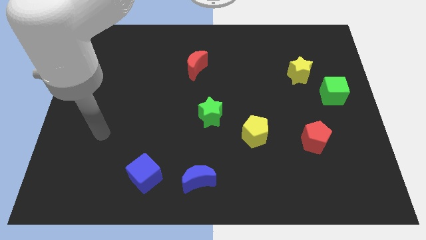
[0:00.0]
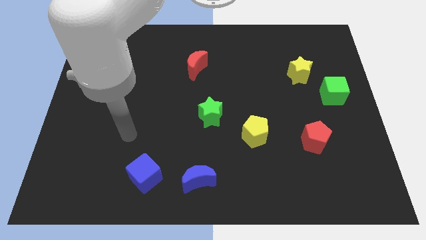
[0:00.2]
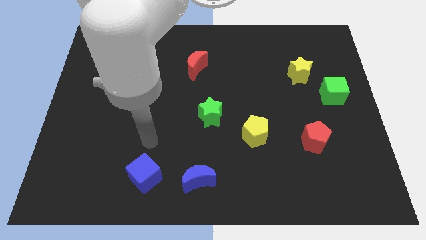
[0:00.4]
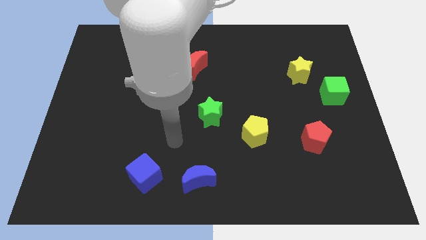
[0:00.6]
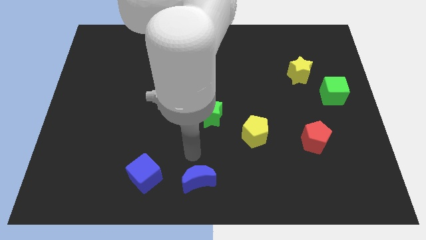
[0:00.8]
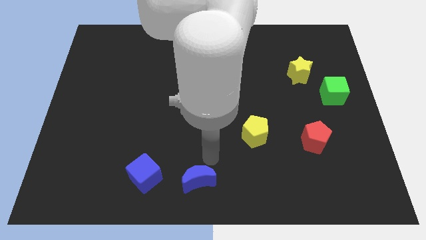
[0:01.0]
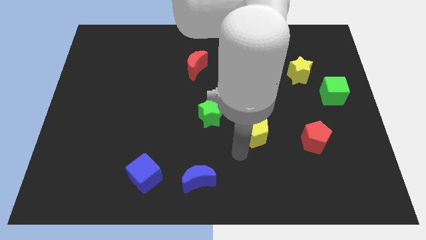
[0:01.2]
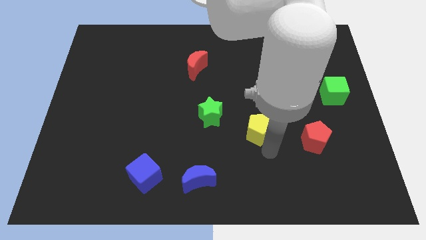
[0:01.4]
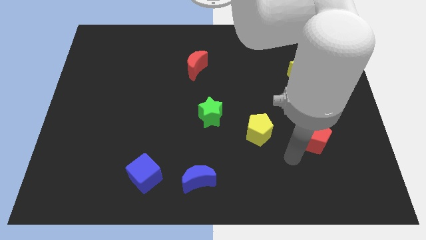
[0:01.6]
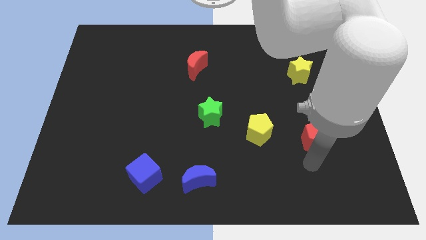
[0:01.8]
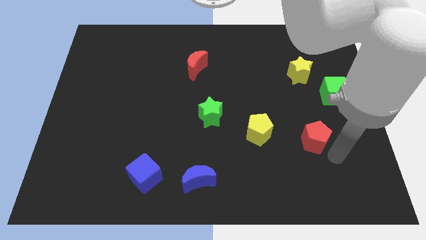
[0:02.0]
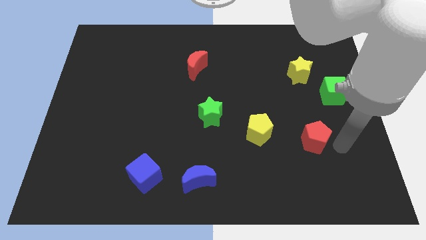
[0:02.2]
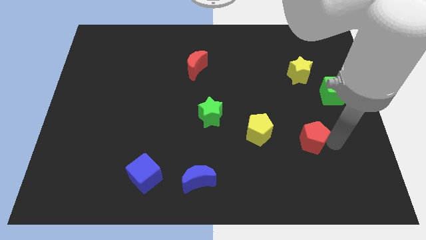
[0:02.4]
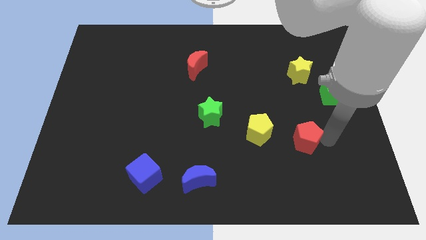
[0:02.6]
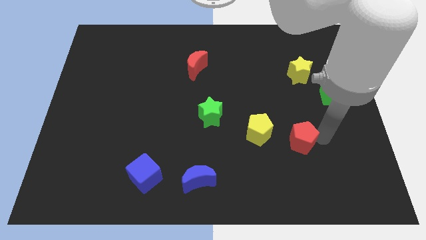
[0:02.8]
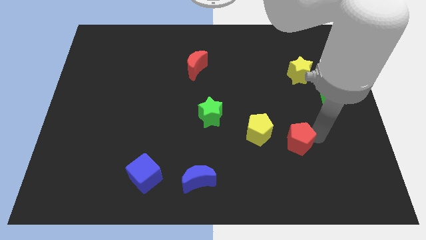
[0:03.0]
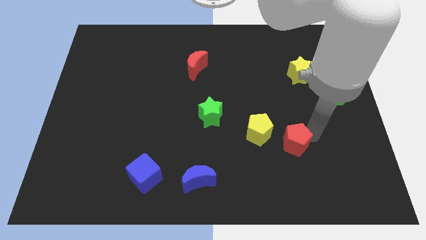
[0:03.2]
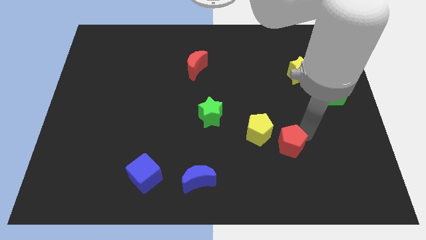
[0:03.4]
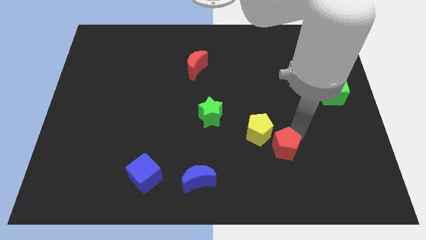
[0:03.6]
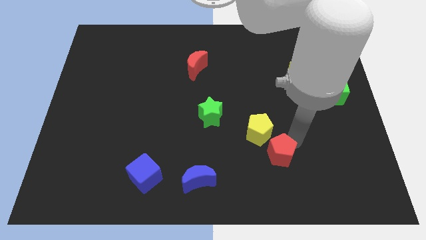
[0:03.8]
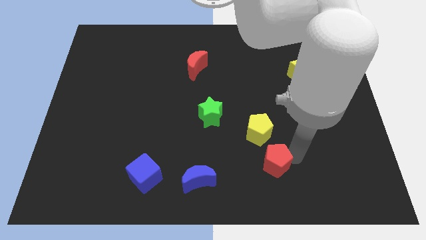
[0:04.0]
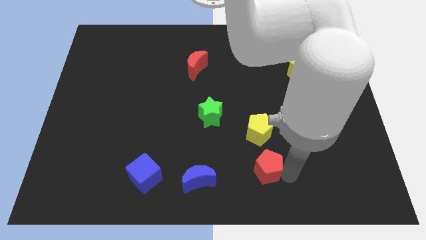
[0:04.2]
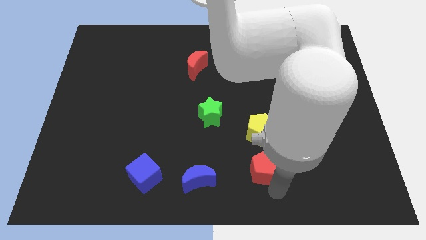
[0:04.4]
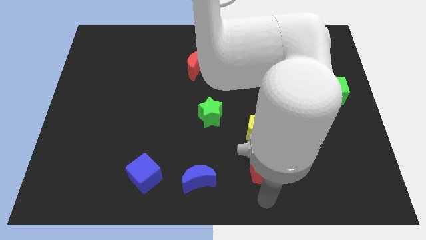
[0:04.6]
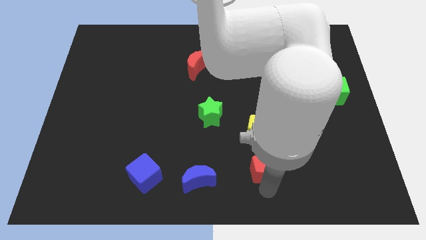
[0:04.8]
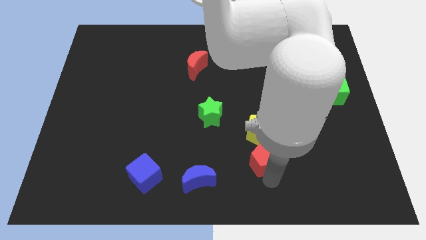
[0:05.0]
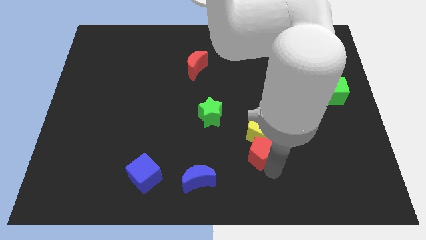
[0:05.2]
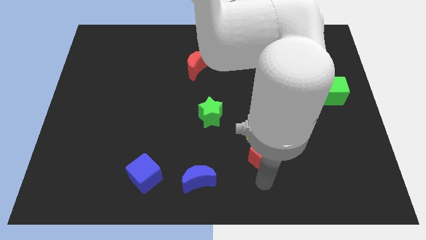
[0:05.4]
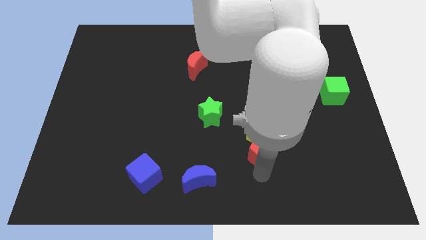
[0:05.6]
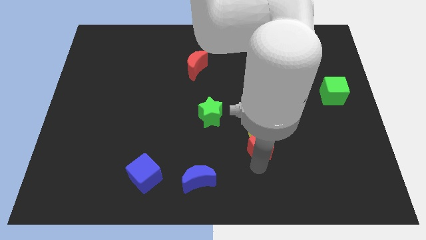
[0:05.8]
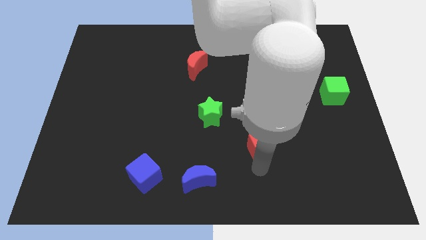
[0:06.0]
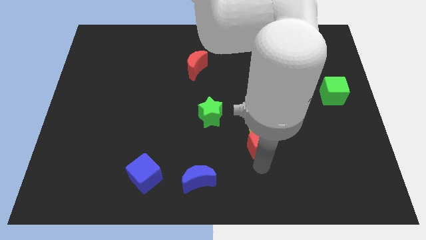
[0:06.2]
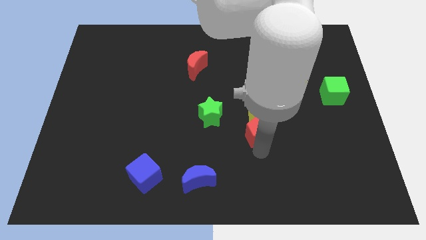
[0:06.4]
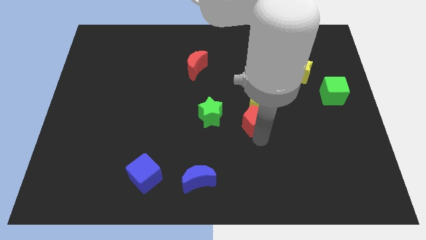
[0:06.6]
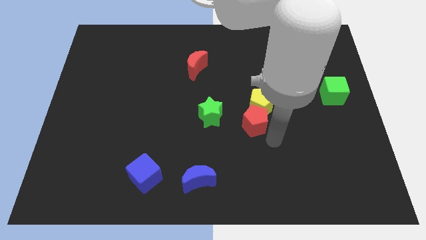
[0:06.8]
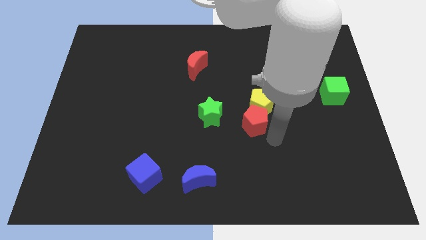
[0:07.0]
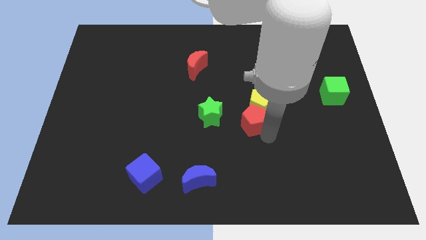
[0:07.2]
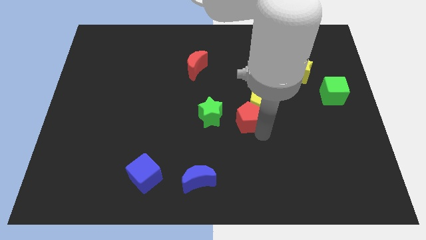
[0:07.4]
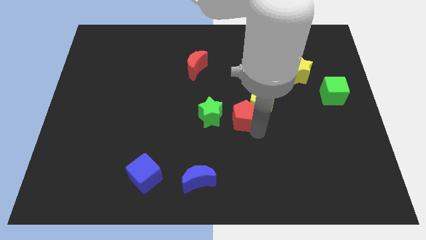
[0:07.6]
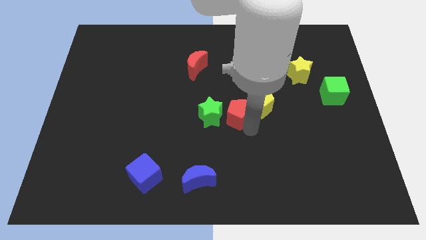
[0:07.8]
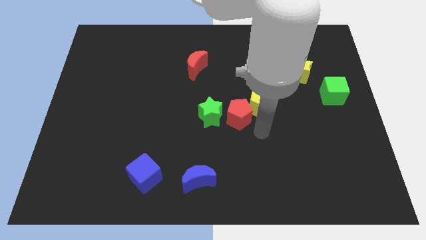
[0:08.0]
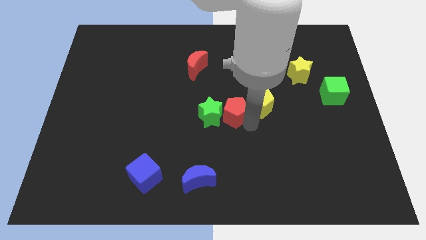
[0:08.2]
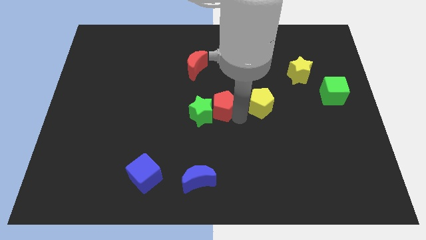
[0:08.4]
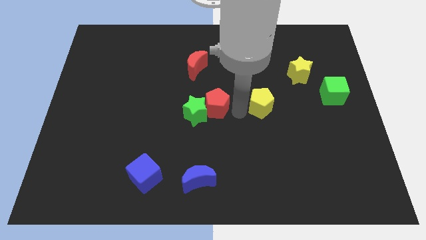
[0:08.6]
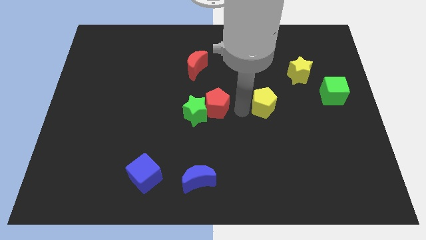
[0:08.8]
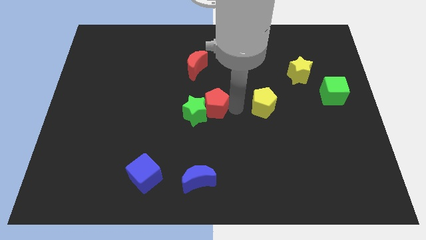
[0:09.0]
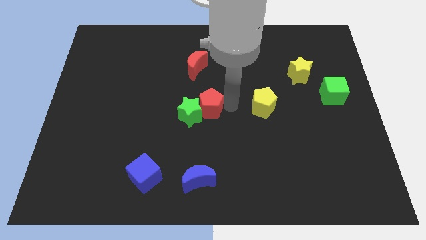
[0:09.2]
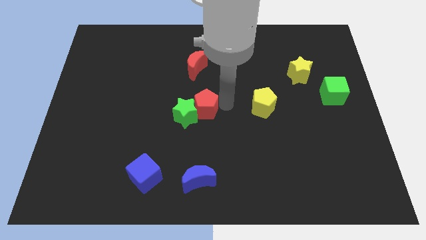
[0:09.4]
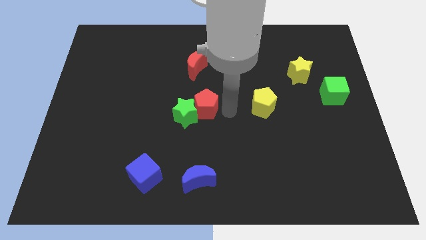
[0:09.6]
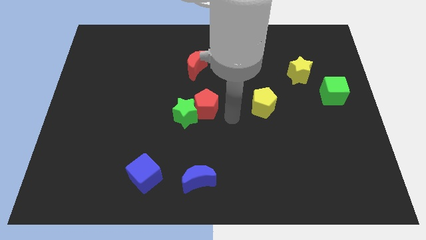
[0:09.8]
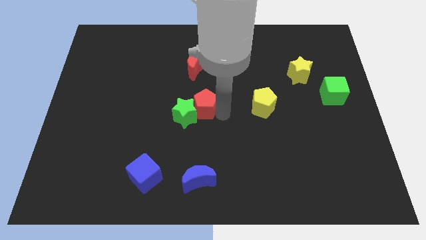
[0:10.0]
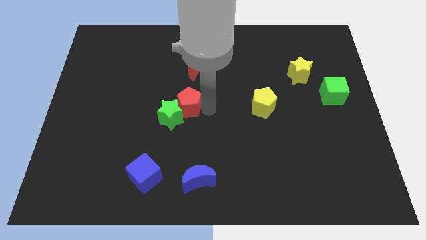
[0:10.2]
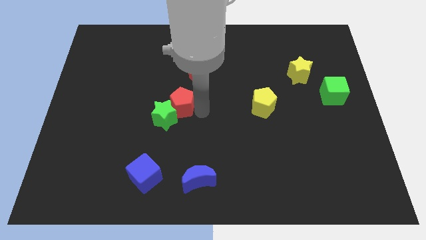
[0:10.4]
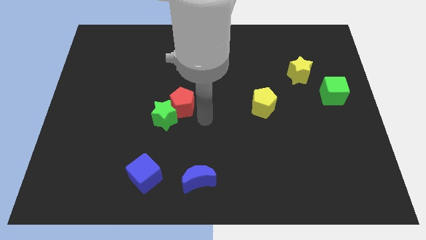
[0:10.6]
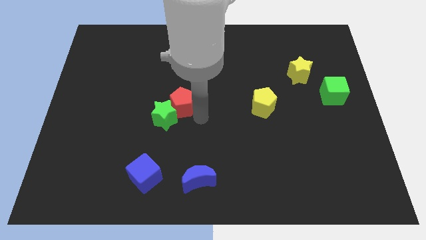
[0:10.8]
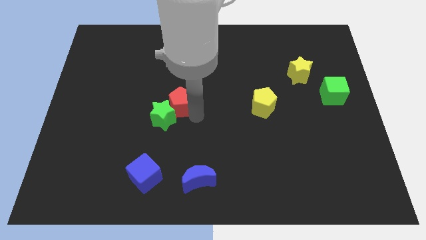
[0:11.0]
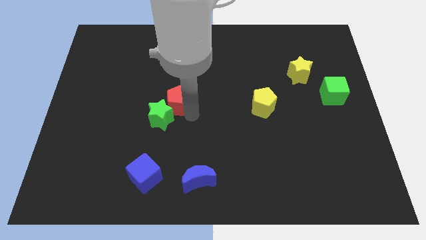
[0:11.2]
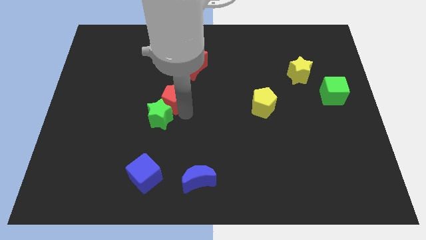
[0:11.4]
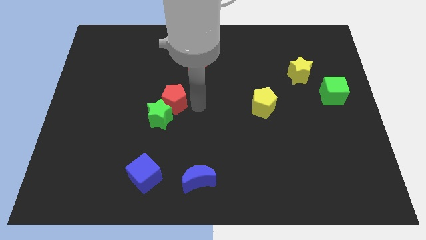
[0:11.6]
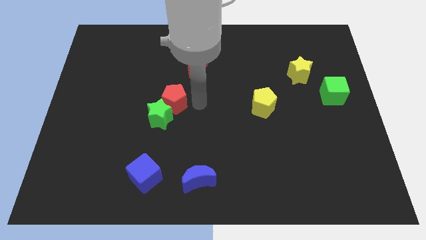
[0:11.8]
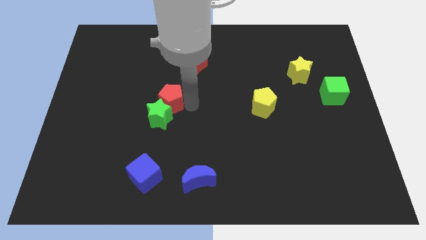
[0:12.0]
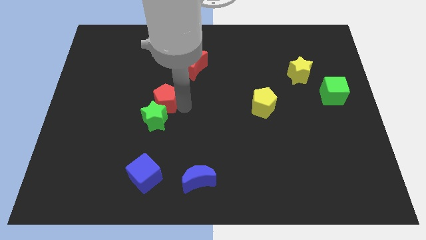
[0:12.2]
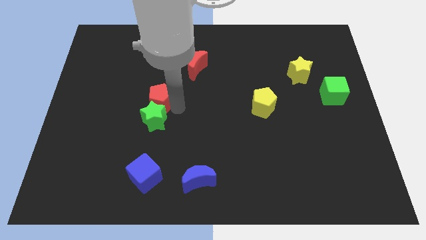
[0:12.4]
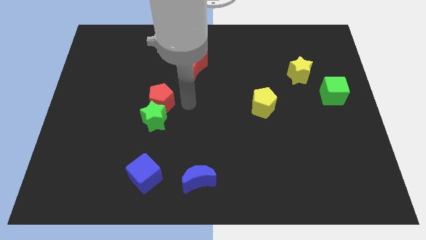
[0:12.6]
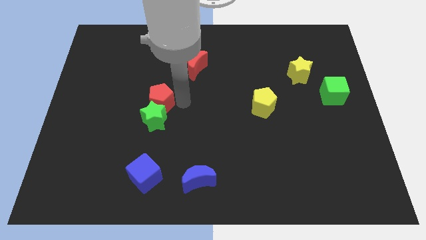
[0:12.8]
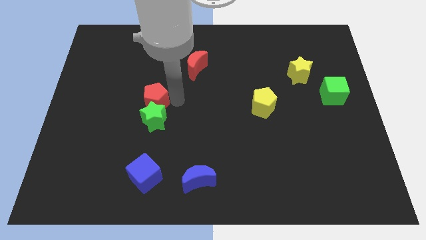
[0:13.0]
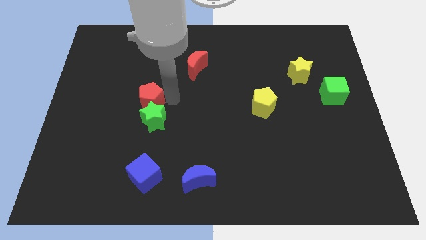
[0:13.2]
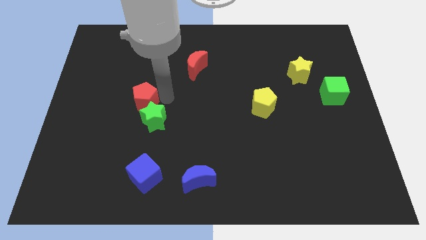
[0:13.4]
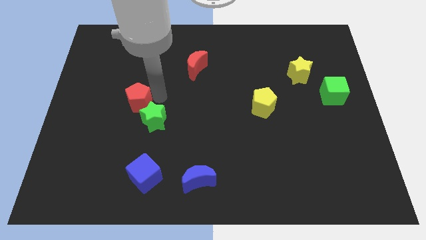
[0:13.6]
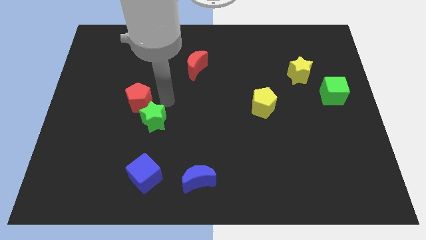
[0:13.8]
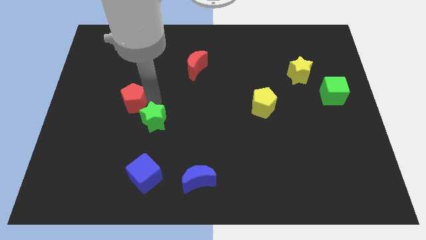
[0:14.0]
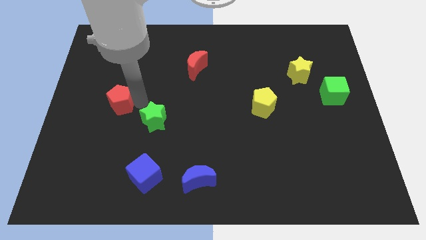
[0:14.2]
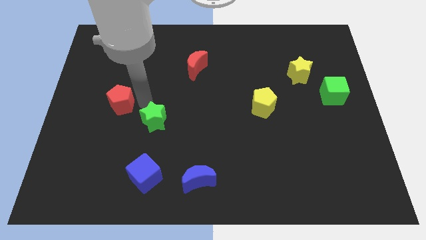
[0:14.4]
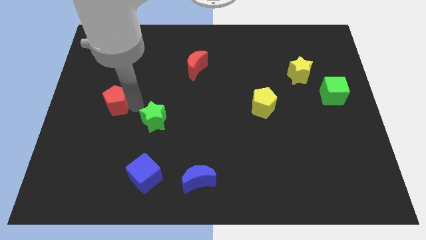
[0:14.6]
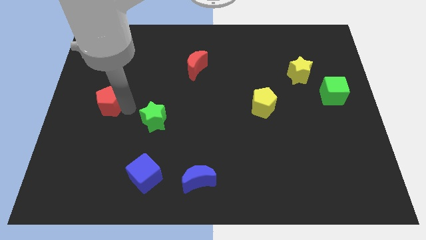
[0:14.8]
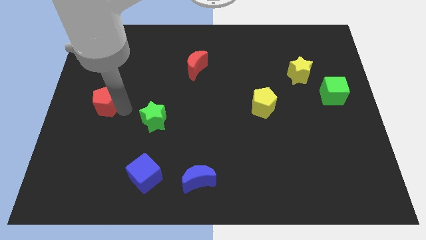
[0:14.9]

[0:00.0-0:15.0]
move the red pentagon to the left side
